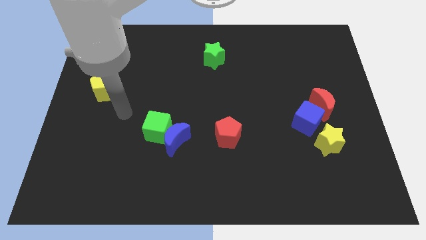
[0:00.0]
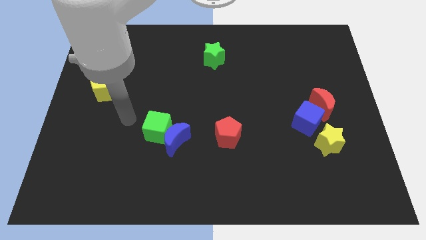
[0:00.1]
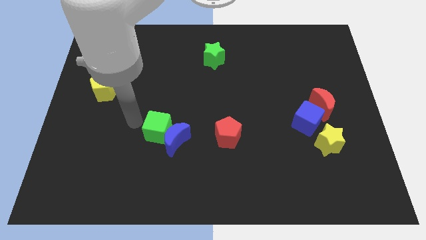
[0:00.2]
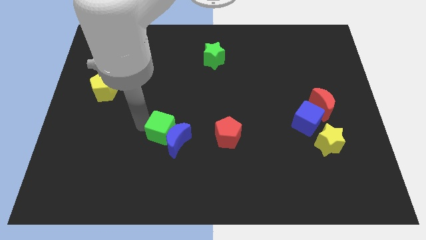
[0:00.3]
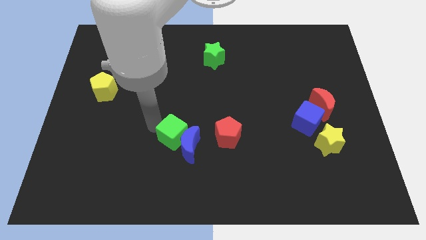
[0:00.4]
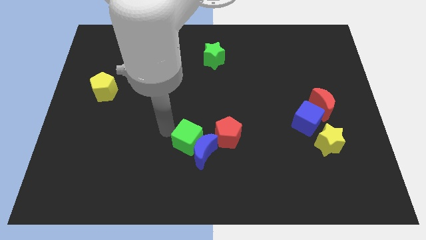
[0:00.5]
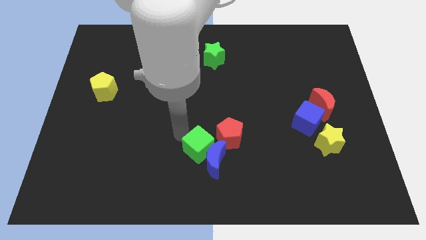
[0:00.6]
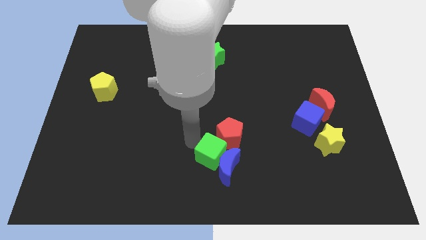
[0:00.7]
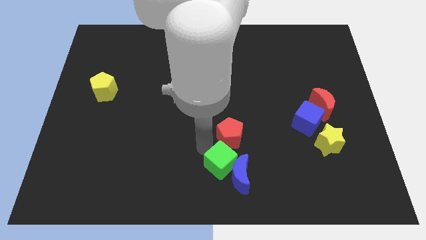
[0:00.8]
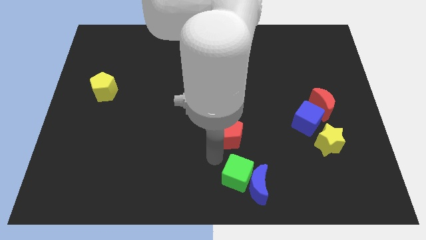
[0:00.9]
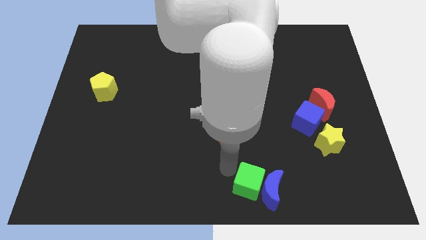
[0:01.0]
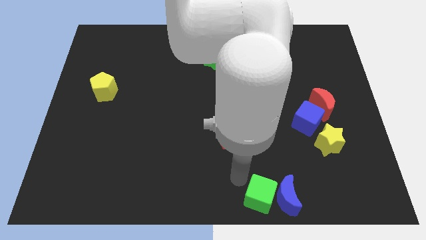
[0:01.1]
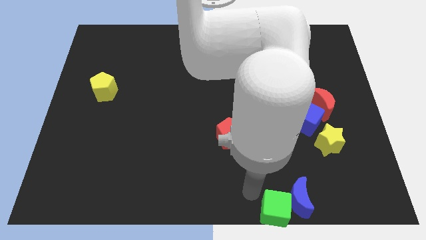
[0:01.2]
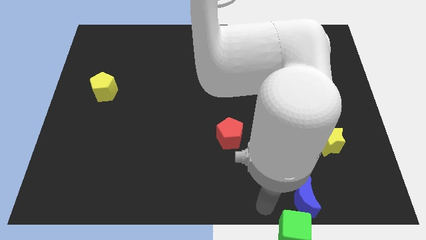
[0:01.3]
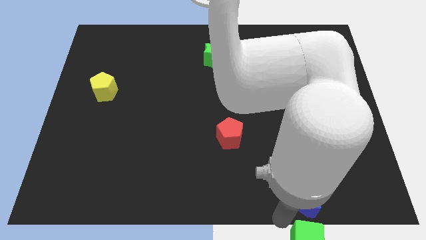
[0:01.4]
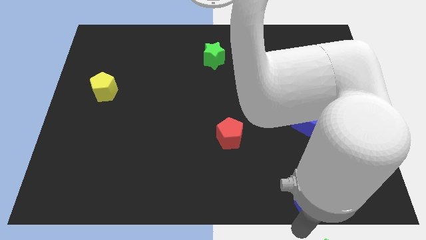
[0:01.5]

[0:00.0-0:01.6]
separate the blue moon from the green cube

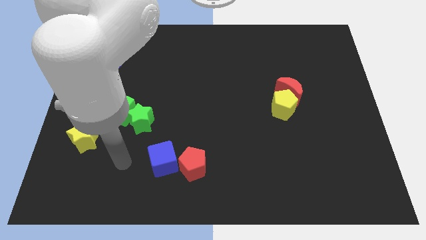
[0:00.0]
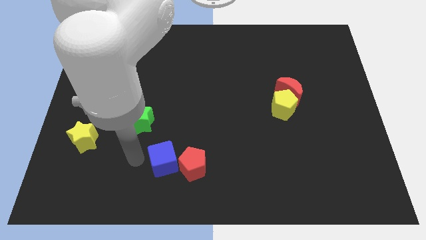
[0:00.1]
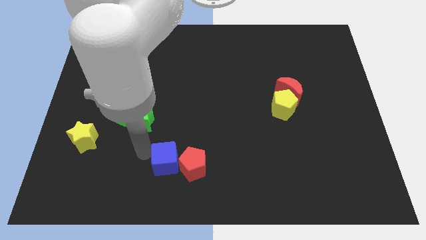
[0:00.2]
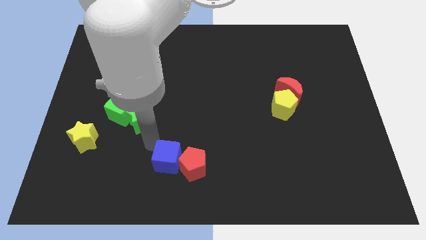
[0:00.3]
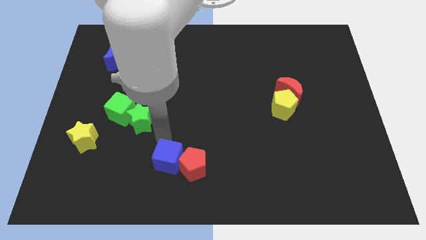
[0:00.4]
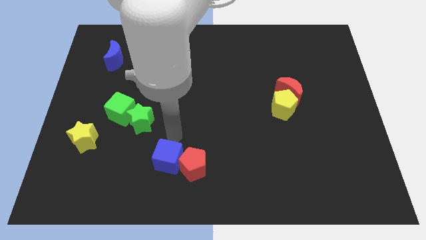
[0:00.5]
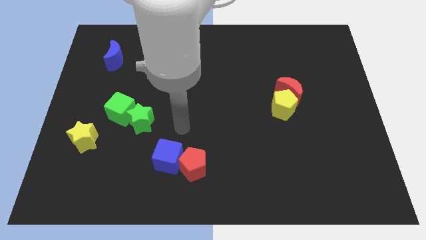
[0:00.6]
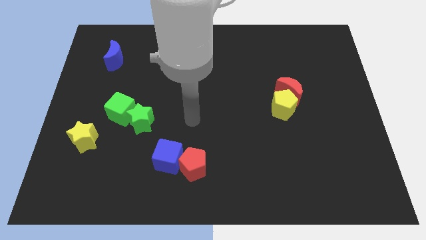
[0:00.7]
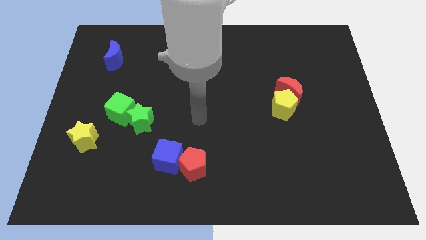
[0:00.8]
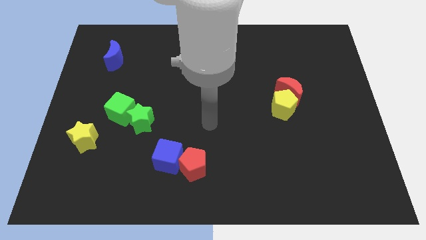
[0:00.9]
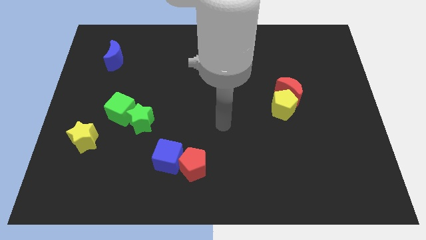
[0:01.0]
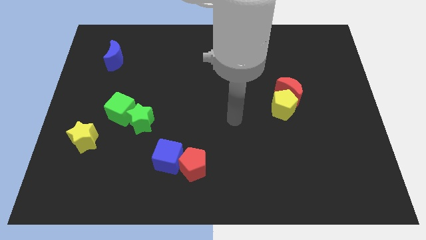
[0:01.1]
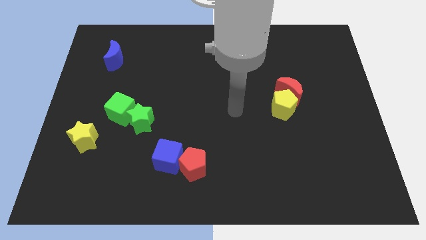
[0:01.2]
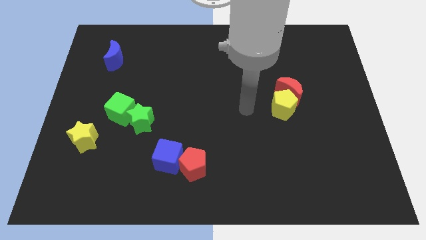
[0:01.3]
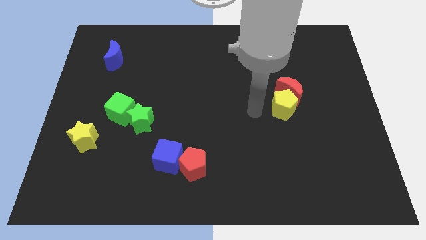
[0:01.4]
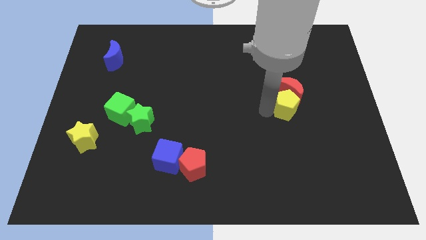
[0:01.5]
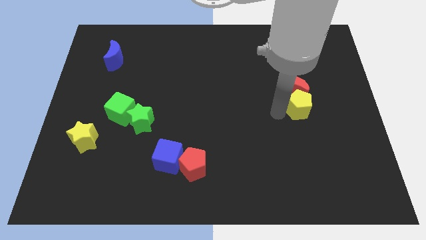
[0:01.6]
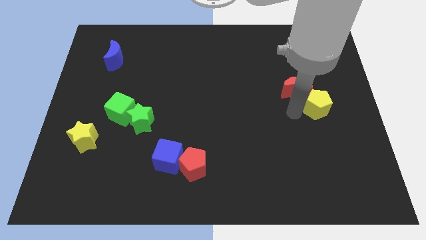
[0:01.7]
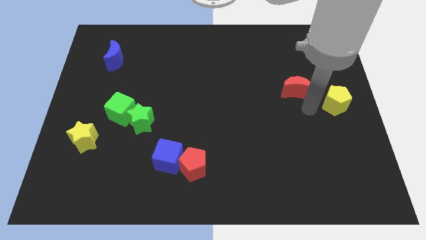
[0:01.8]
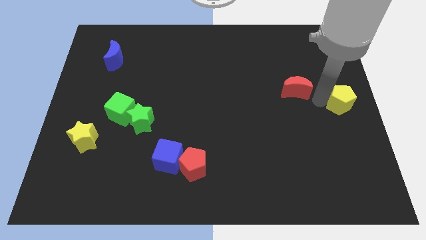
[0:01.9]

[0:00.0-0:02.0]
pull the red moon apart from the yellow pentagon

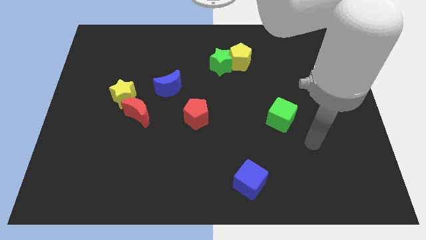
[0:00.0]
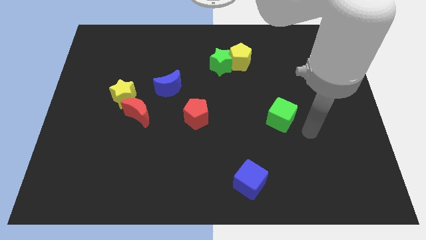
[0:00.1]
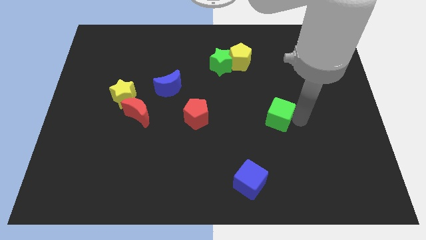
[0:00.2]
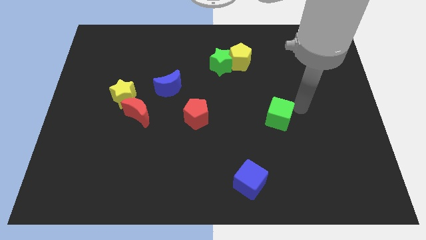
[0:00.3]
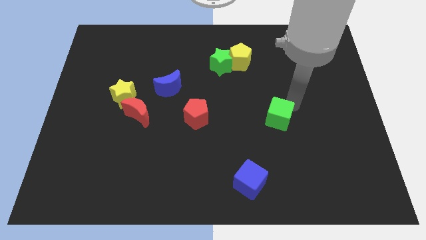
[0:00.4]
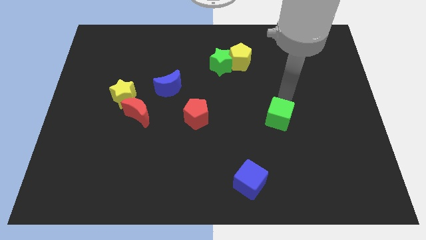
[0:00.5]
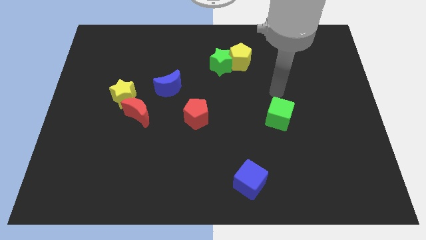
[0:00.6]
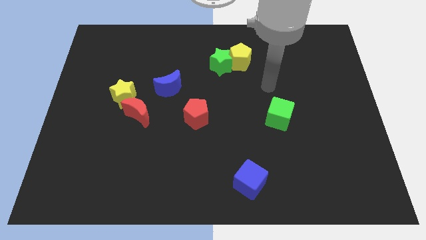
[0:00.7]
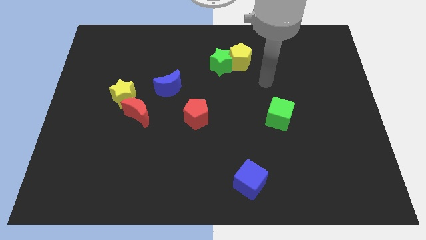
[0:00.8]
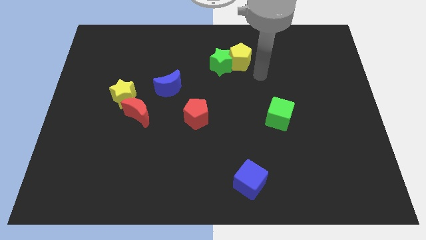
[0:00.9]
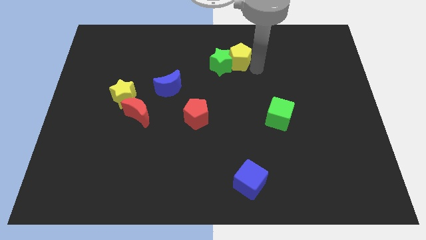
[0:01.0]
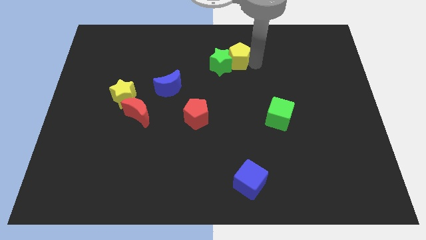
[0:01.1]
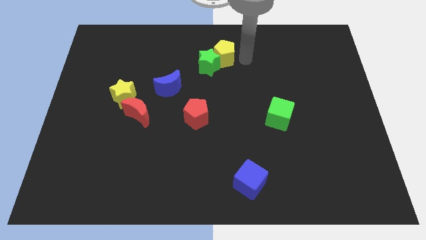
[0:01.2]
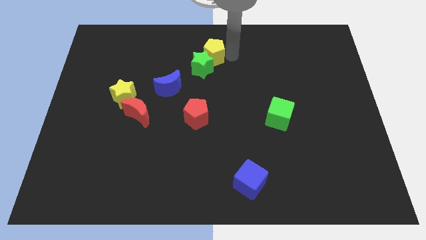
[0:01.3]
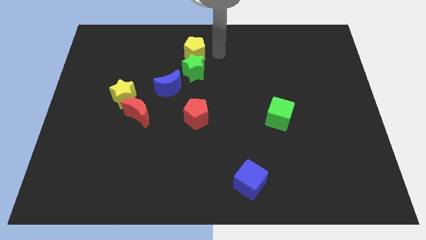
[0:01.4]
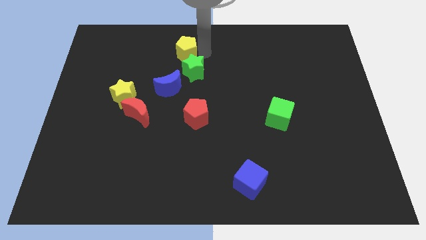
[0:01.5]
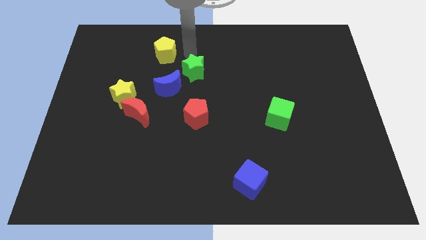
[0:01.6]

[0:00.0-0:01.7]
pull the green star apart from the yellow pentagon

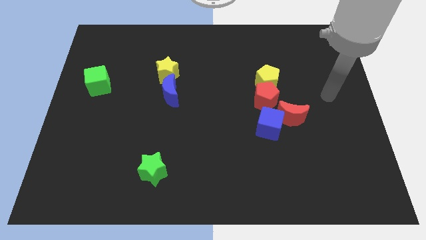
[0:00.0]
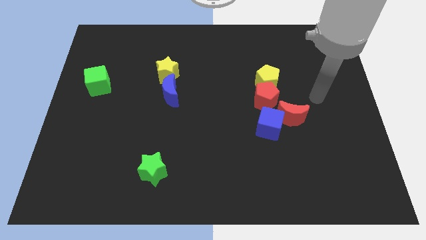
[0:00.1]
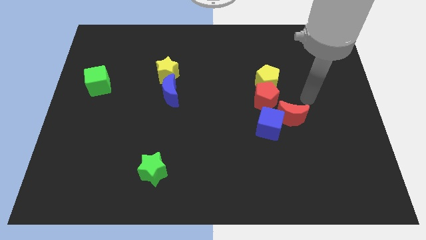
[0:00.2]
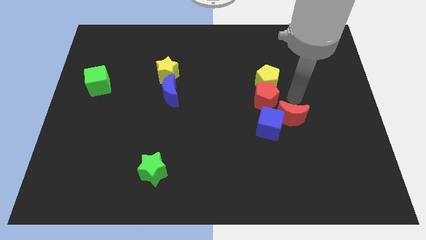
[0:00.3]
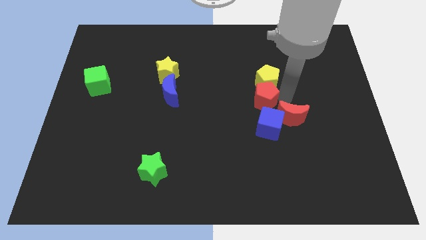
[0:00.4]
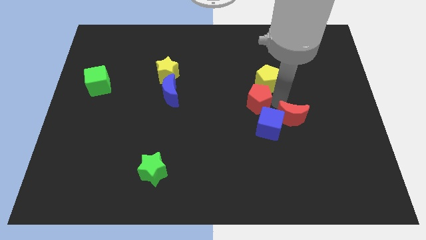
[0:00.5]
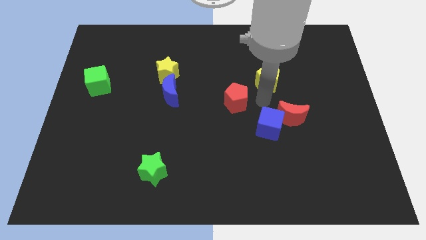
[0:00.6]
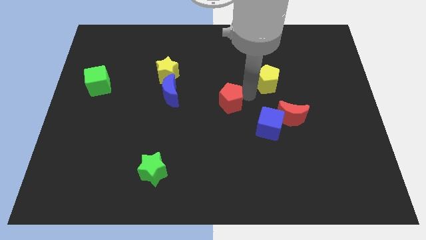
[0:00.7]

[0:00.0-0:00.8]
separate the yellow pentagon from the red pentagon

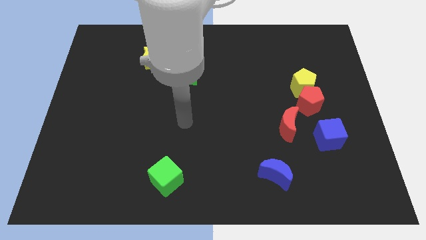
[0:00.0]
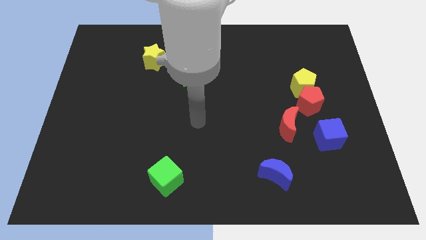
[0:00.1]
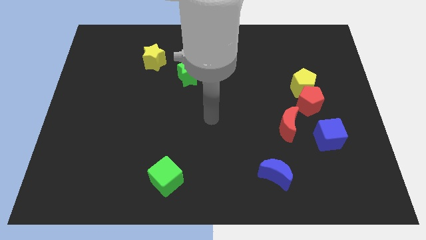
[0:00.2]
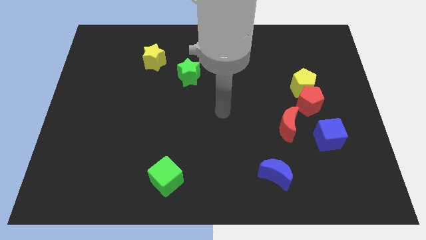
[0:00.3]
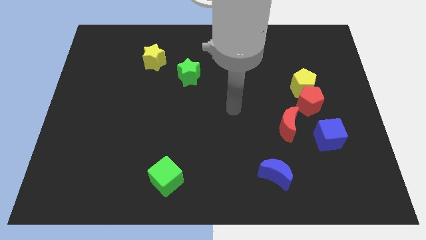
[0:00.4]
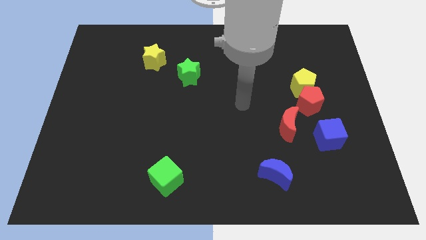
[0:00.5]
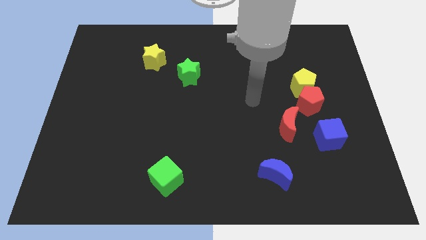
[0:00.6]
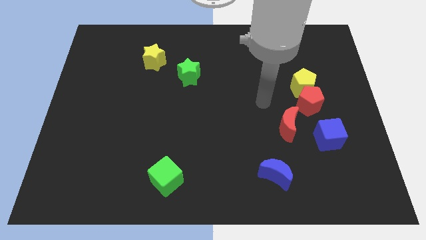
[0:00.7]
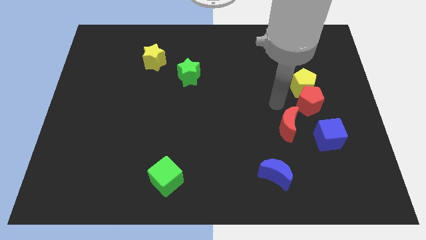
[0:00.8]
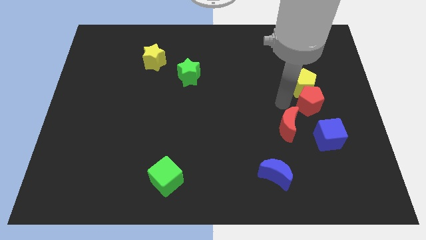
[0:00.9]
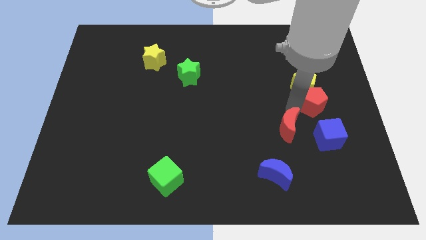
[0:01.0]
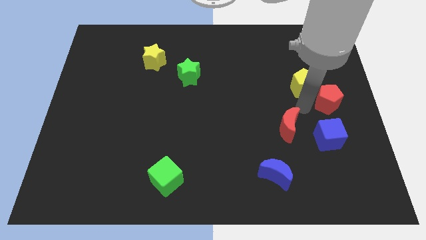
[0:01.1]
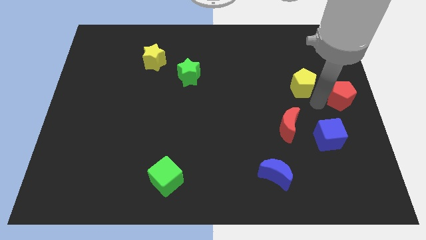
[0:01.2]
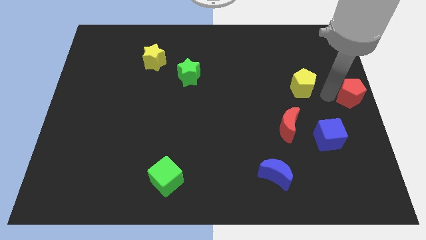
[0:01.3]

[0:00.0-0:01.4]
pull the yellow pentagon apart from the red pentagon

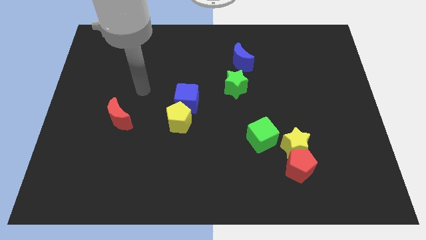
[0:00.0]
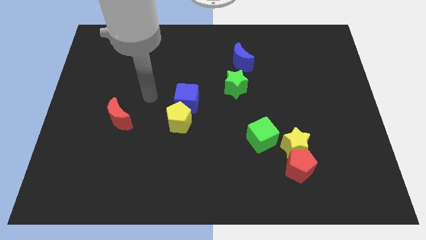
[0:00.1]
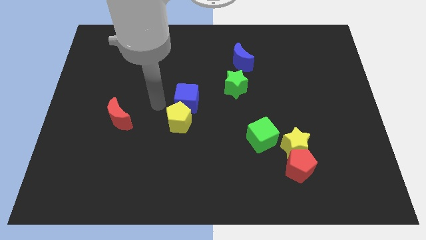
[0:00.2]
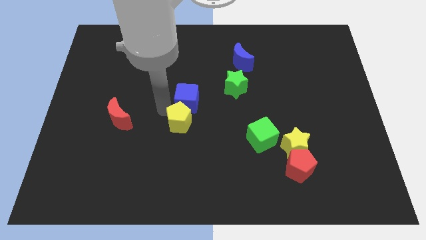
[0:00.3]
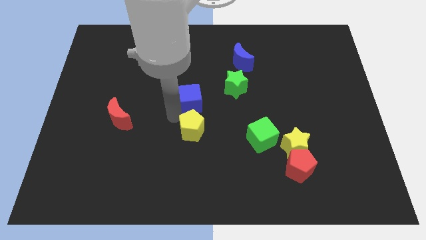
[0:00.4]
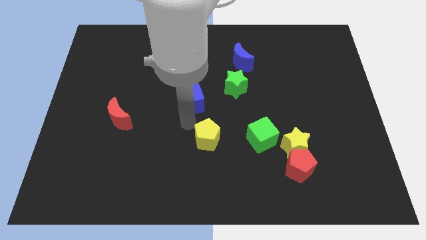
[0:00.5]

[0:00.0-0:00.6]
pull the blue cube apart from the yellow pentagon

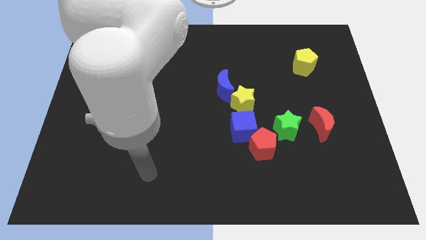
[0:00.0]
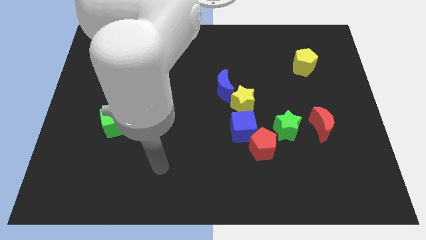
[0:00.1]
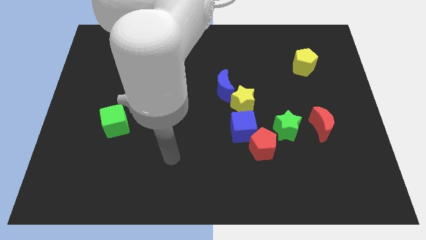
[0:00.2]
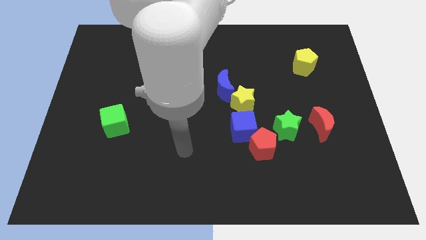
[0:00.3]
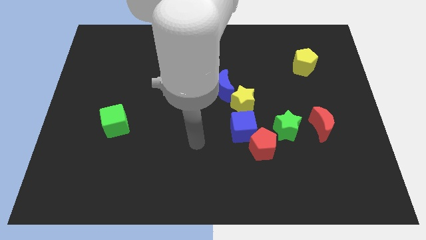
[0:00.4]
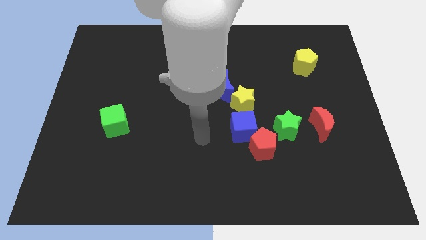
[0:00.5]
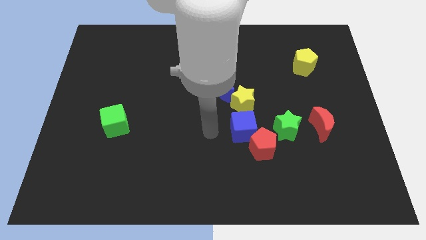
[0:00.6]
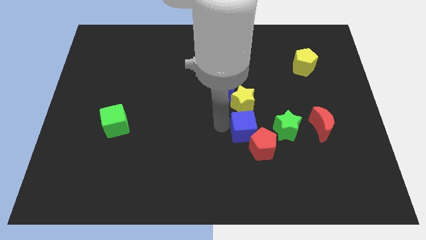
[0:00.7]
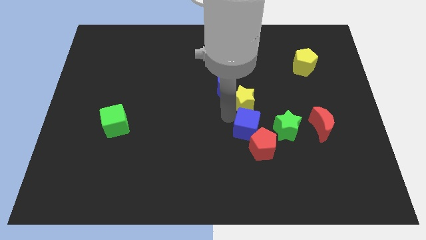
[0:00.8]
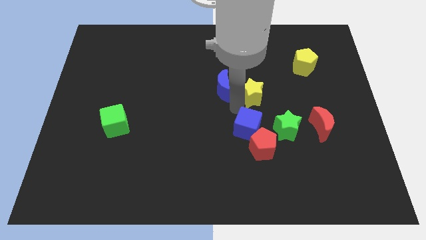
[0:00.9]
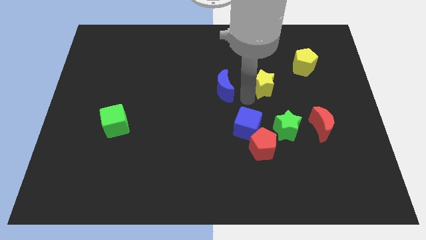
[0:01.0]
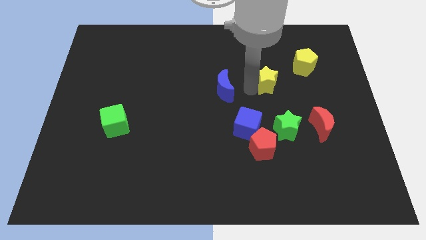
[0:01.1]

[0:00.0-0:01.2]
move the blue moon away from the yellow star
